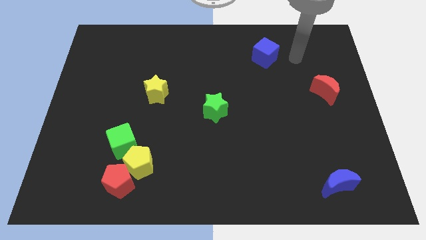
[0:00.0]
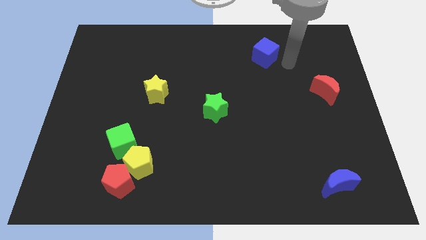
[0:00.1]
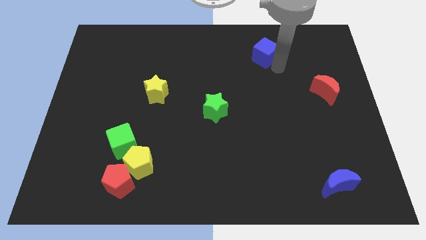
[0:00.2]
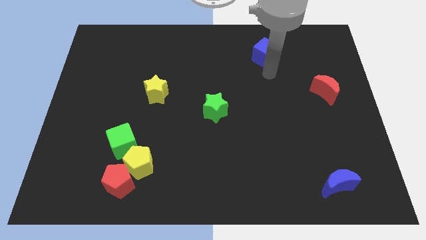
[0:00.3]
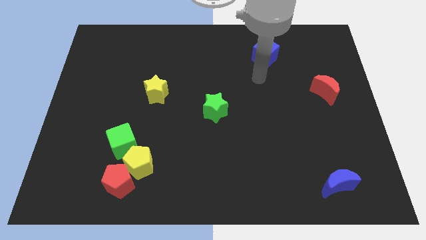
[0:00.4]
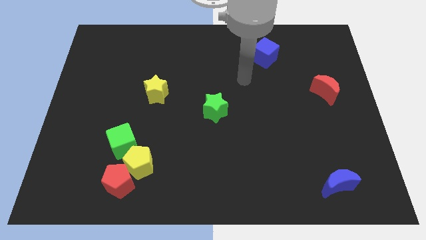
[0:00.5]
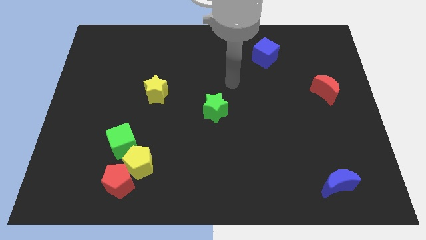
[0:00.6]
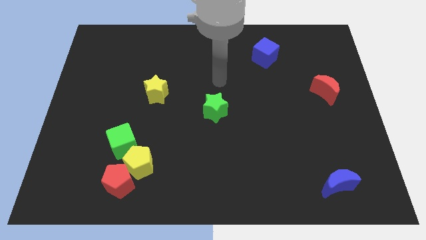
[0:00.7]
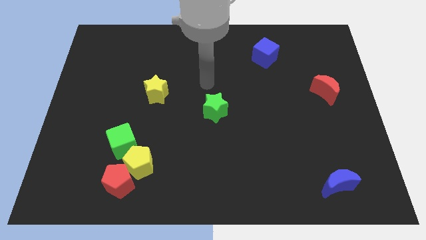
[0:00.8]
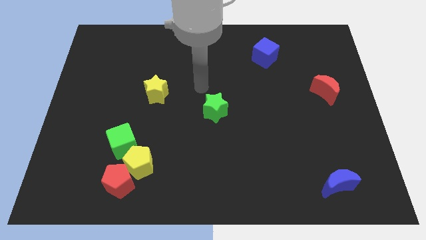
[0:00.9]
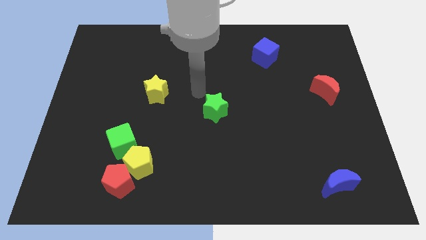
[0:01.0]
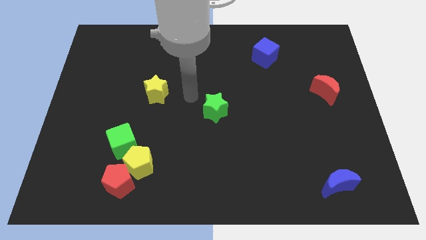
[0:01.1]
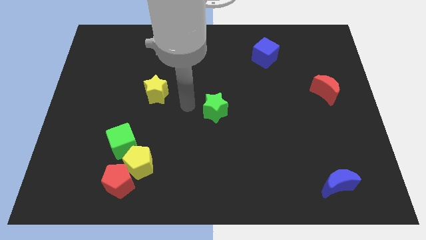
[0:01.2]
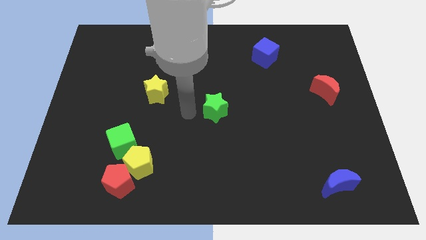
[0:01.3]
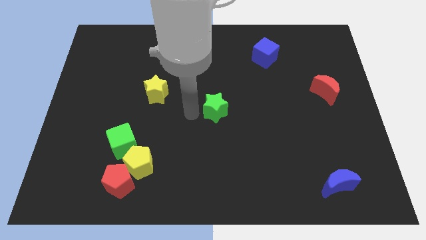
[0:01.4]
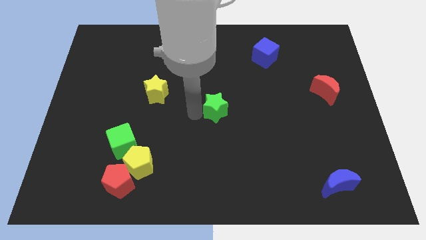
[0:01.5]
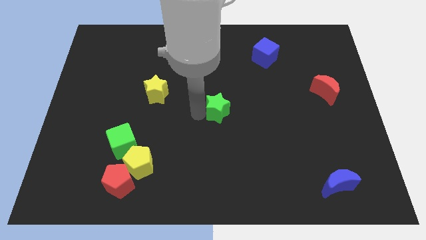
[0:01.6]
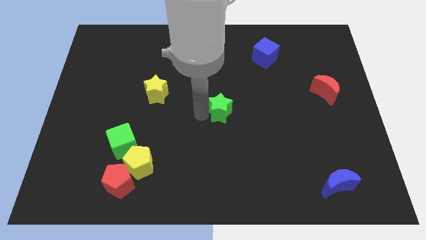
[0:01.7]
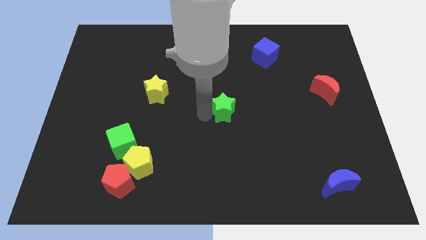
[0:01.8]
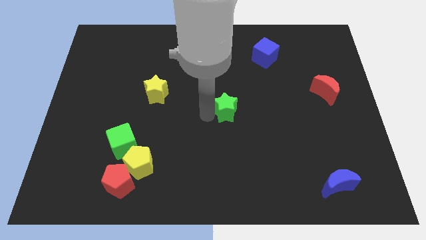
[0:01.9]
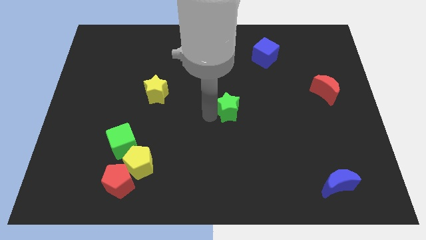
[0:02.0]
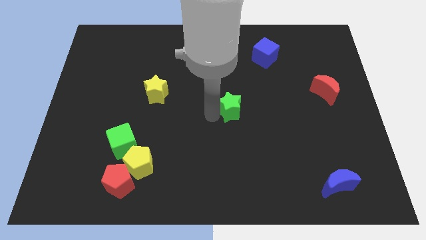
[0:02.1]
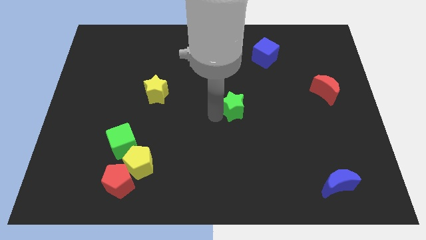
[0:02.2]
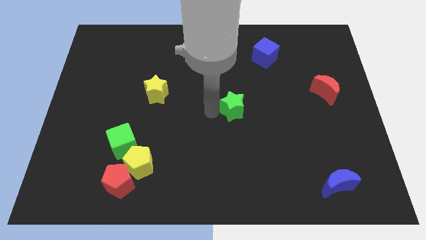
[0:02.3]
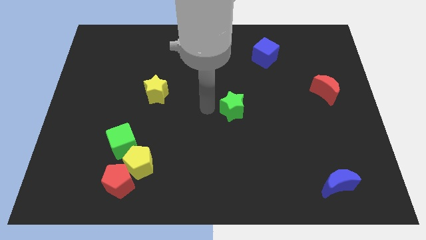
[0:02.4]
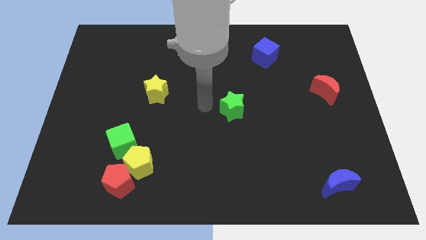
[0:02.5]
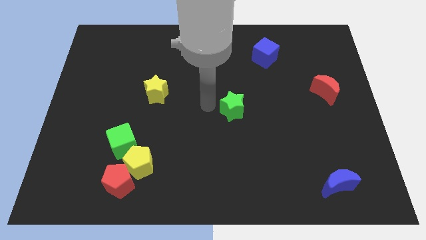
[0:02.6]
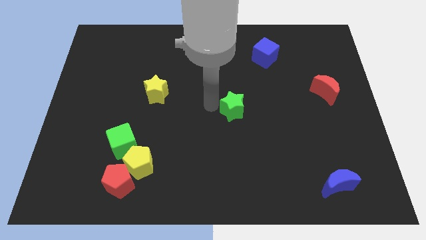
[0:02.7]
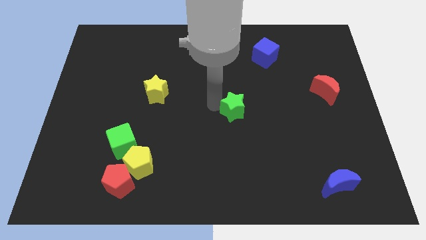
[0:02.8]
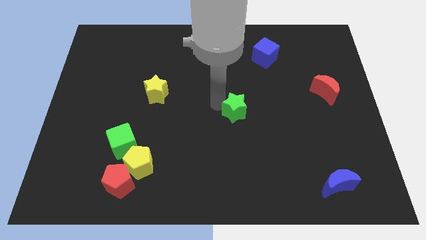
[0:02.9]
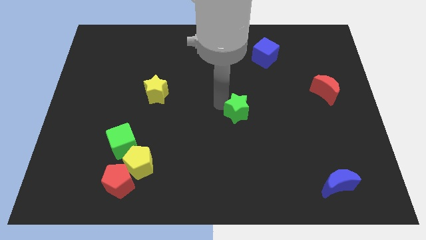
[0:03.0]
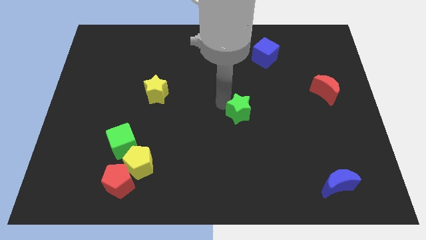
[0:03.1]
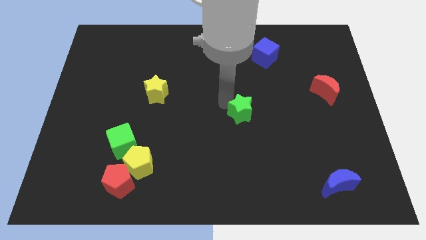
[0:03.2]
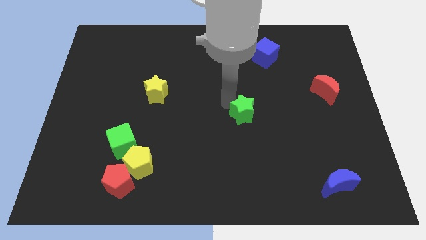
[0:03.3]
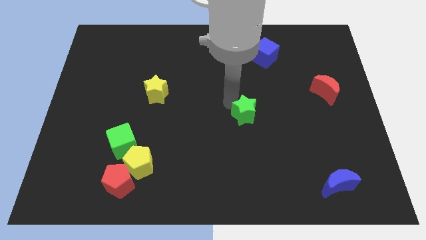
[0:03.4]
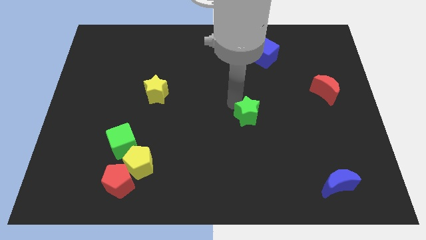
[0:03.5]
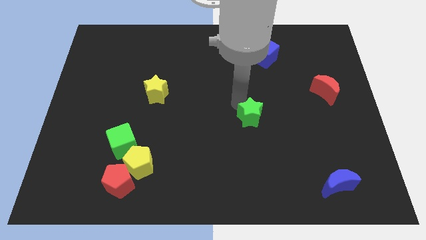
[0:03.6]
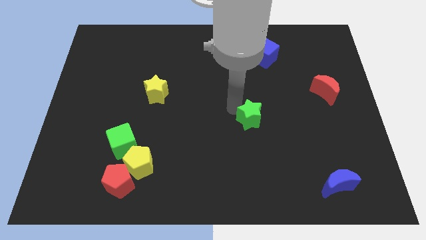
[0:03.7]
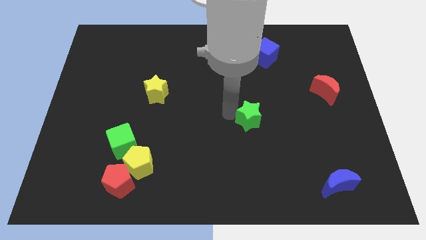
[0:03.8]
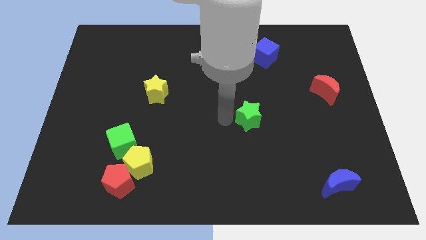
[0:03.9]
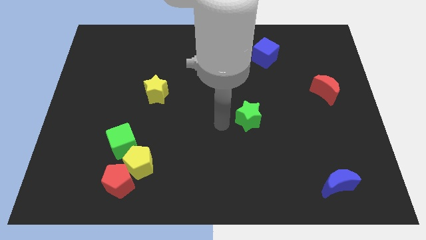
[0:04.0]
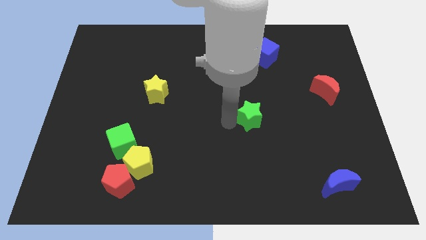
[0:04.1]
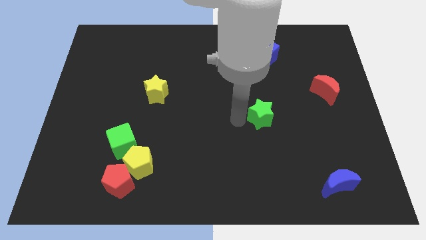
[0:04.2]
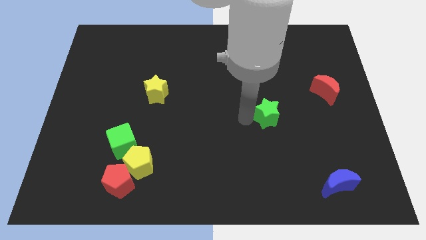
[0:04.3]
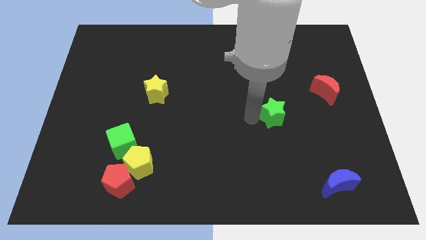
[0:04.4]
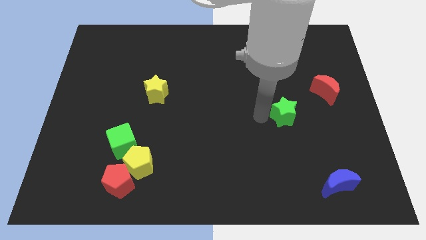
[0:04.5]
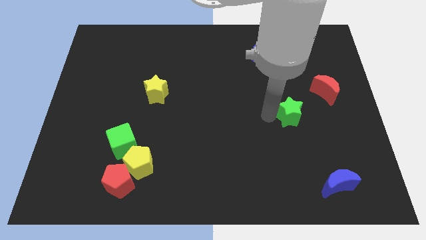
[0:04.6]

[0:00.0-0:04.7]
put the green star to the bottom left side of the red moon

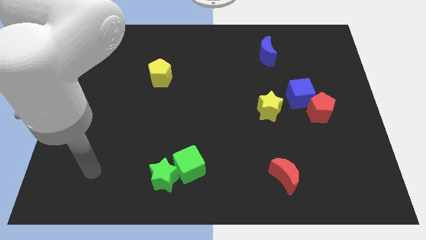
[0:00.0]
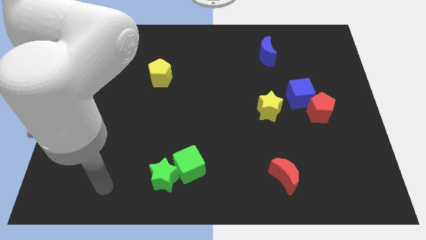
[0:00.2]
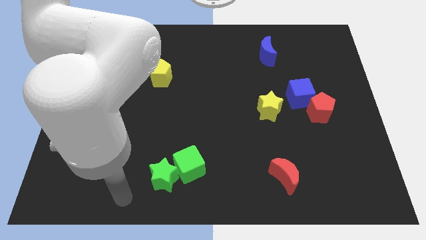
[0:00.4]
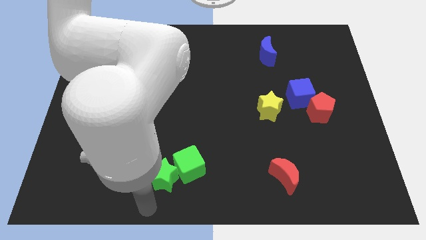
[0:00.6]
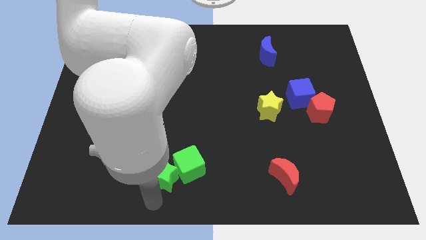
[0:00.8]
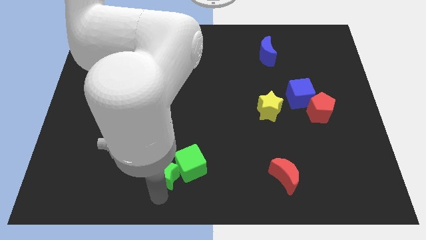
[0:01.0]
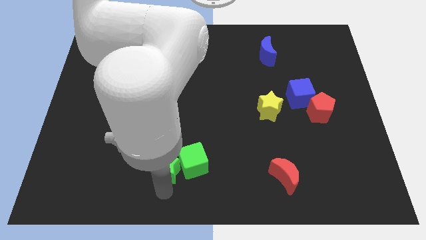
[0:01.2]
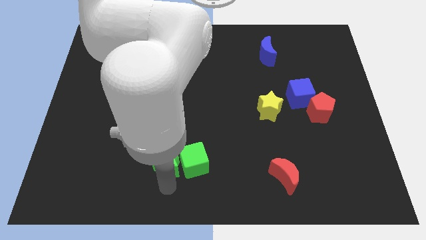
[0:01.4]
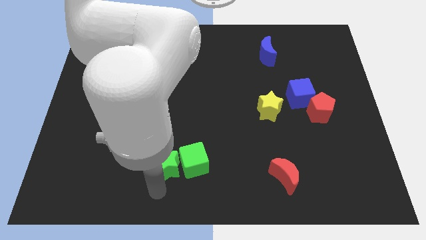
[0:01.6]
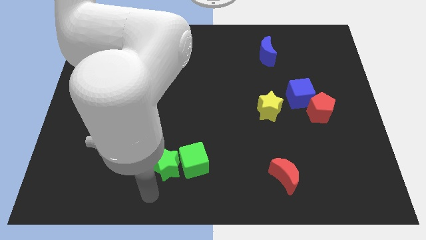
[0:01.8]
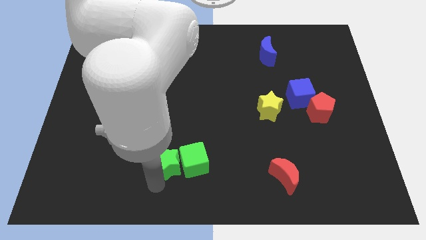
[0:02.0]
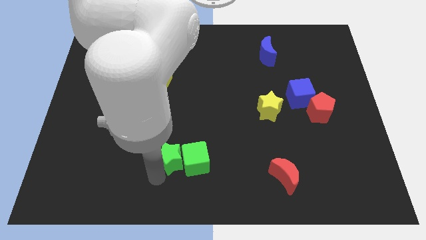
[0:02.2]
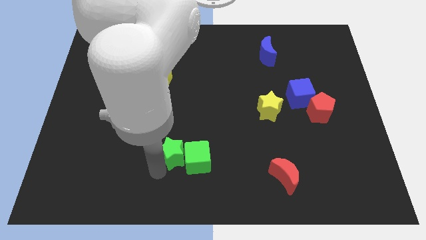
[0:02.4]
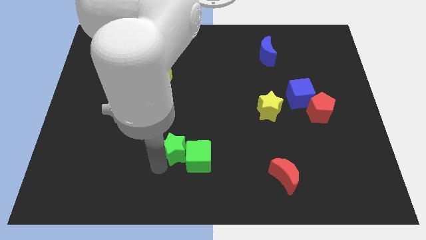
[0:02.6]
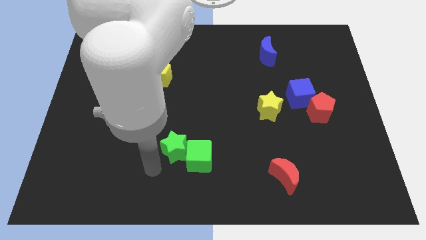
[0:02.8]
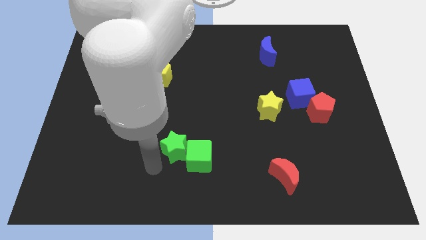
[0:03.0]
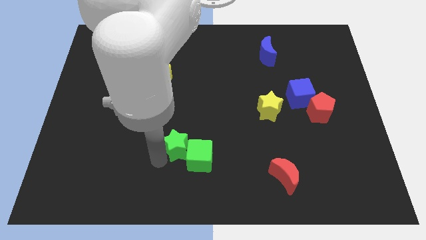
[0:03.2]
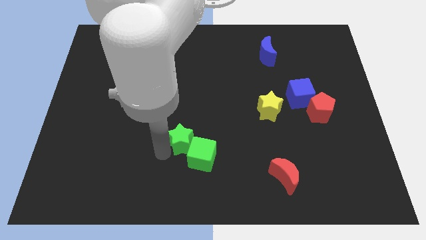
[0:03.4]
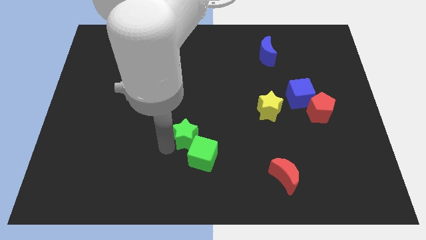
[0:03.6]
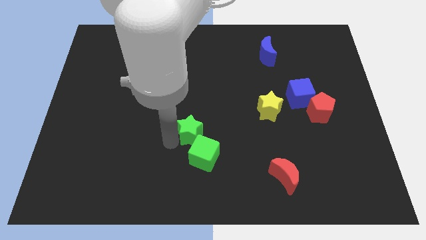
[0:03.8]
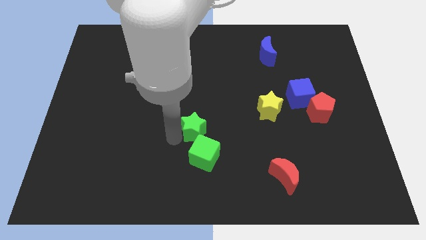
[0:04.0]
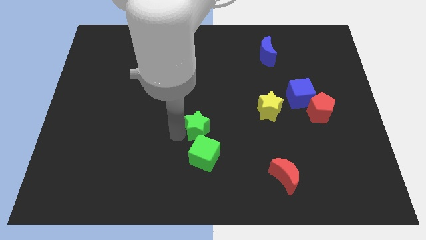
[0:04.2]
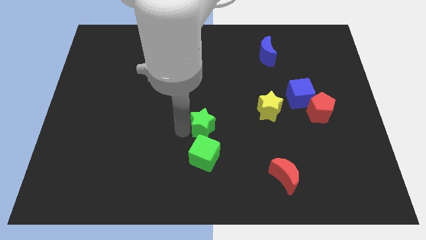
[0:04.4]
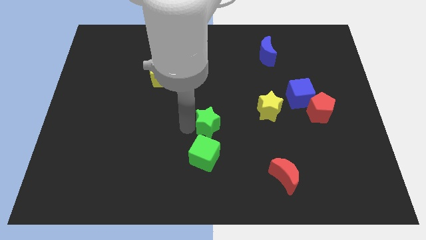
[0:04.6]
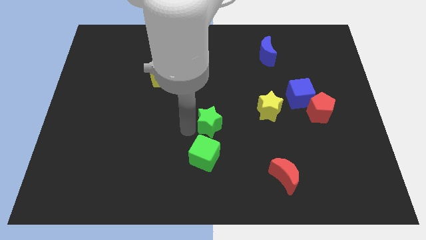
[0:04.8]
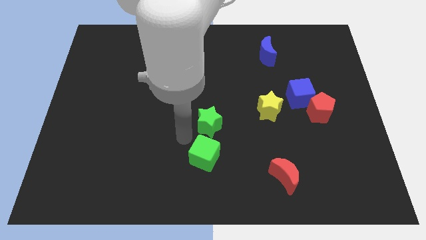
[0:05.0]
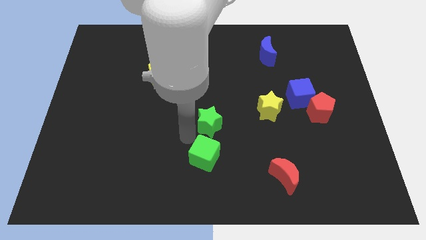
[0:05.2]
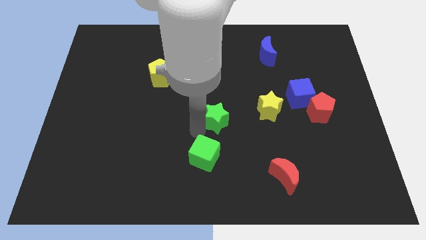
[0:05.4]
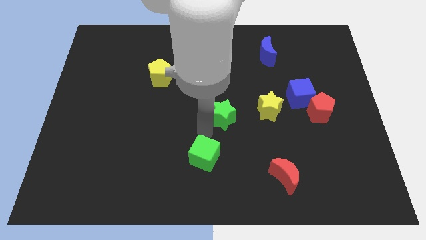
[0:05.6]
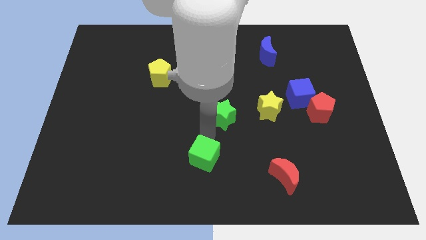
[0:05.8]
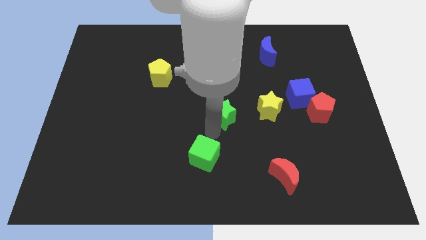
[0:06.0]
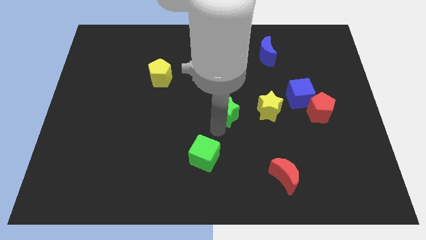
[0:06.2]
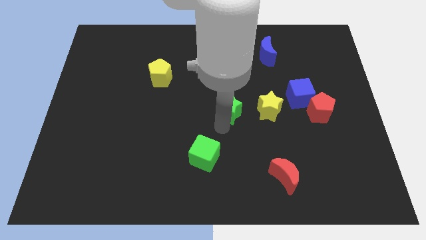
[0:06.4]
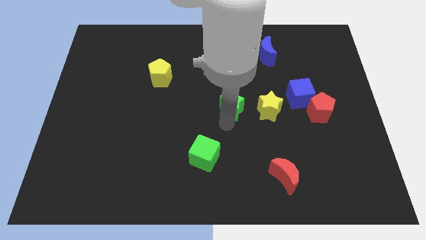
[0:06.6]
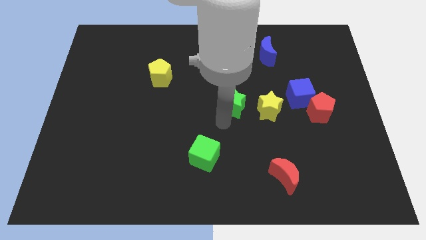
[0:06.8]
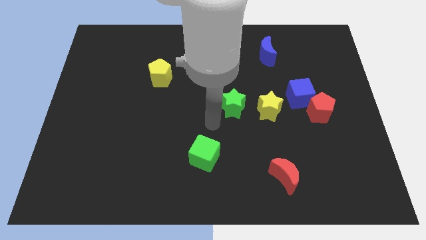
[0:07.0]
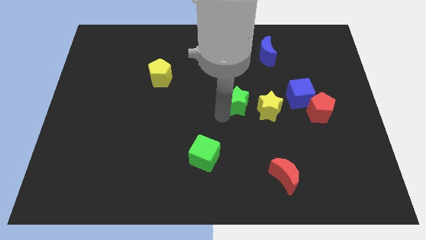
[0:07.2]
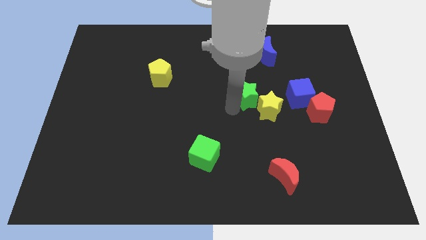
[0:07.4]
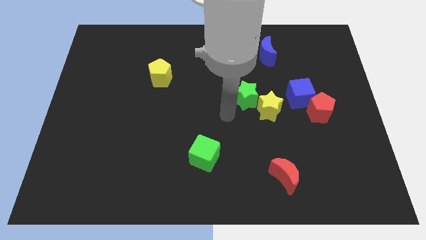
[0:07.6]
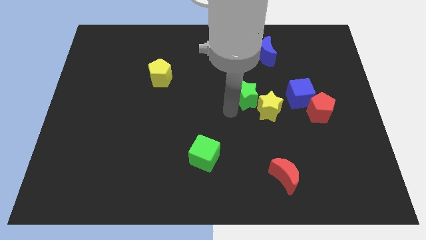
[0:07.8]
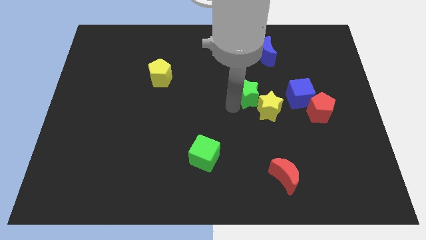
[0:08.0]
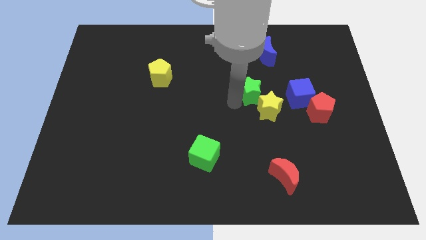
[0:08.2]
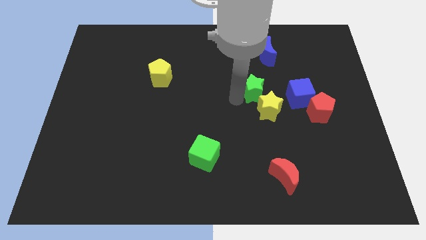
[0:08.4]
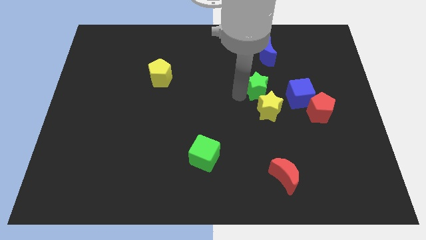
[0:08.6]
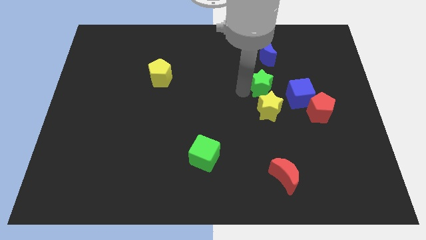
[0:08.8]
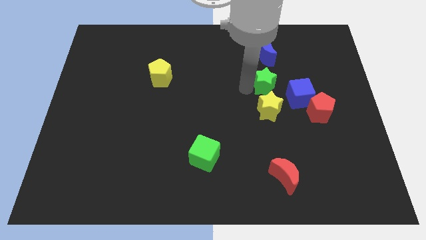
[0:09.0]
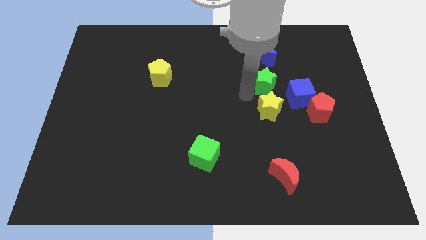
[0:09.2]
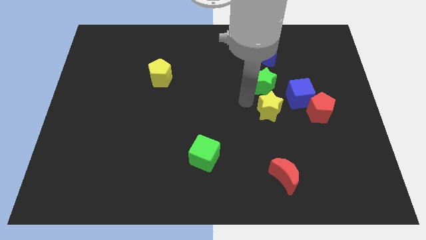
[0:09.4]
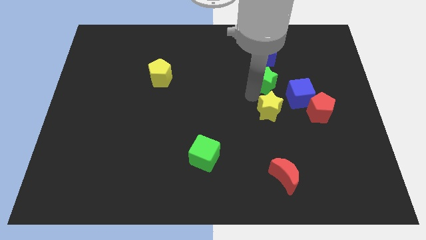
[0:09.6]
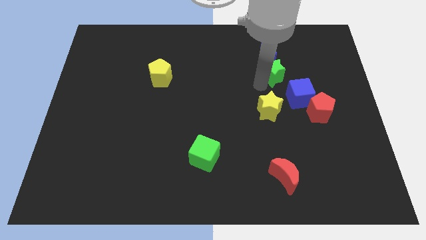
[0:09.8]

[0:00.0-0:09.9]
move the green star to the bottom right side of the blue moon
